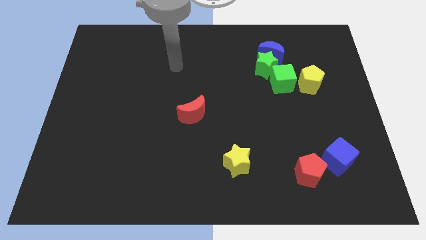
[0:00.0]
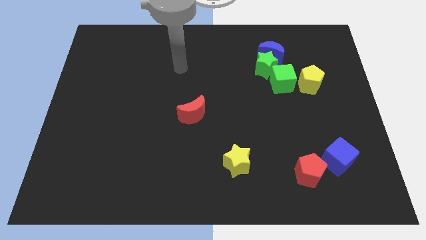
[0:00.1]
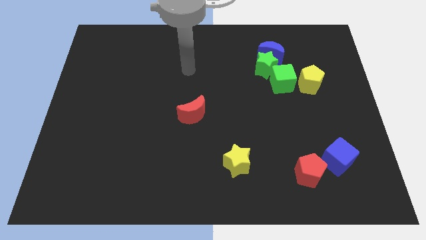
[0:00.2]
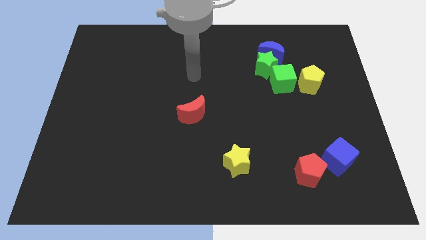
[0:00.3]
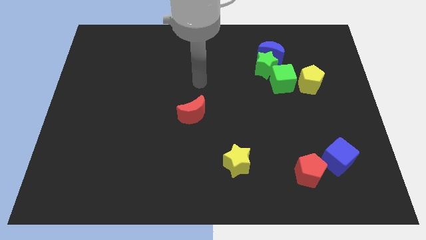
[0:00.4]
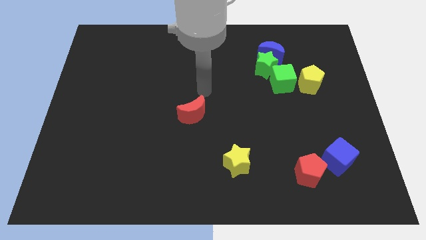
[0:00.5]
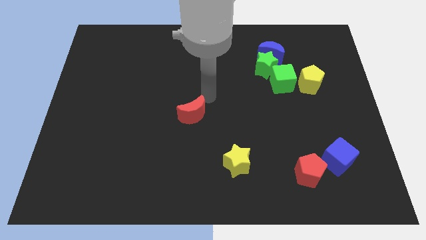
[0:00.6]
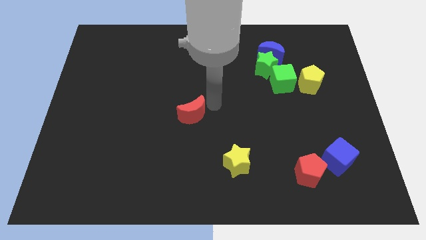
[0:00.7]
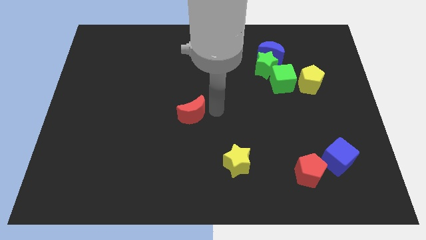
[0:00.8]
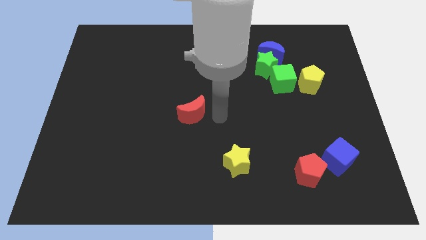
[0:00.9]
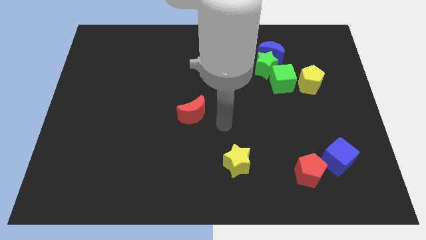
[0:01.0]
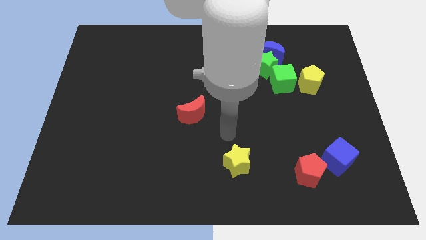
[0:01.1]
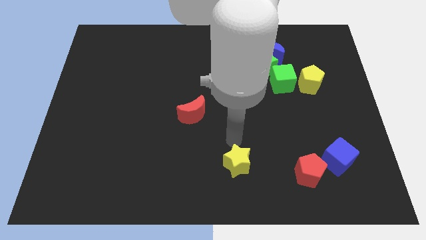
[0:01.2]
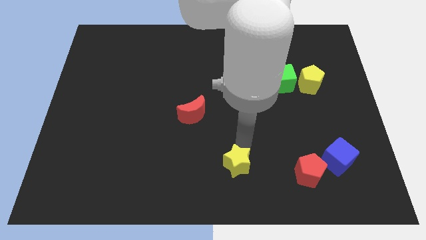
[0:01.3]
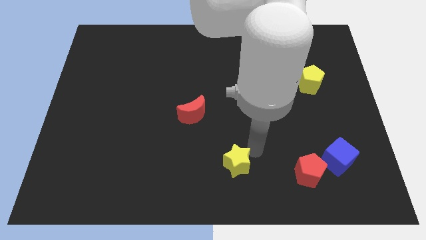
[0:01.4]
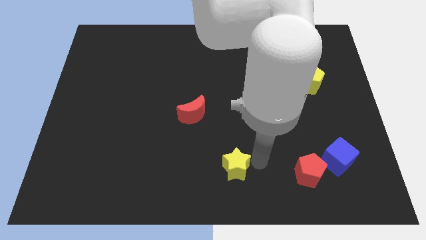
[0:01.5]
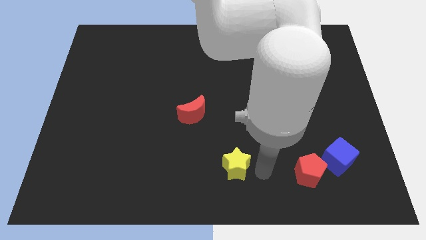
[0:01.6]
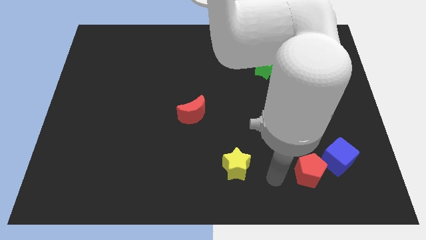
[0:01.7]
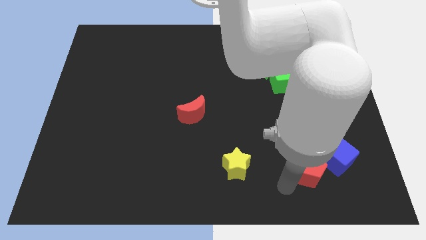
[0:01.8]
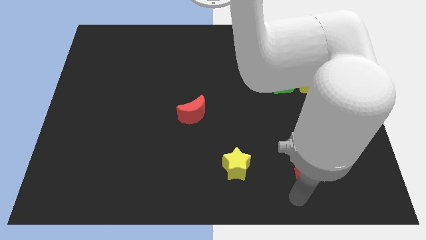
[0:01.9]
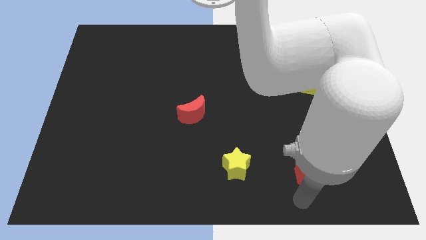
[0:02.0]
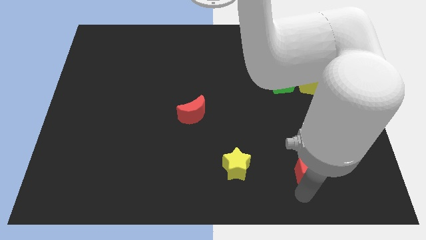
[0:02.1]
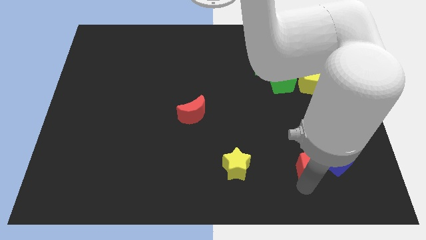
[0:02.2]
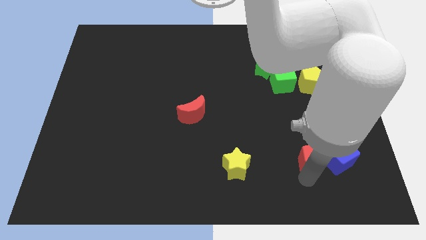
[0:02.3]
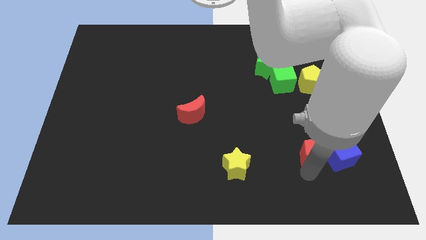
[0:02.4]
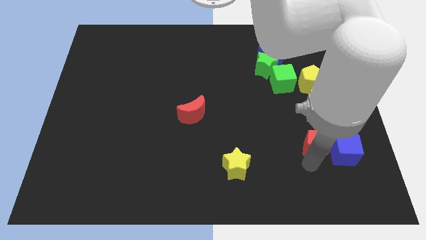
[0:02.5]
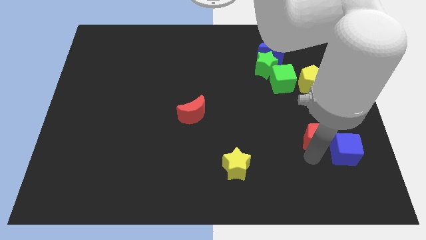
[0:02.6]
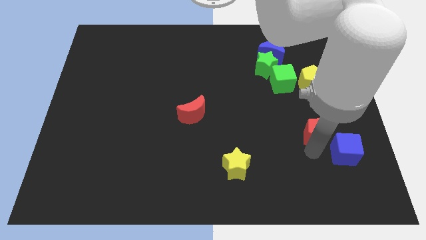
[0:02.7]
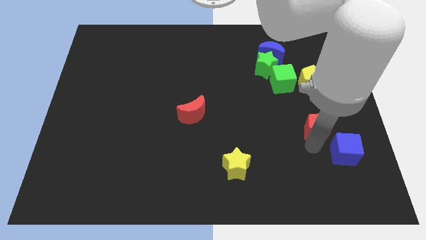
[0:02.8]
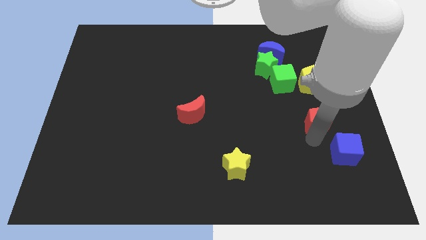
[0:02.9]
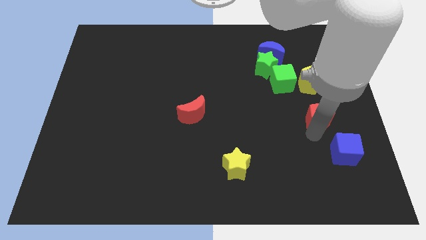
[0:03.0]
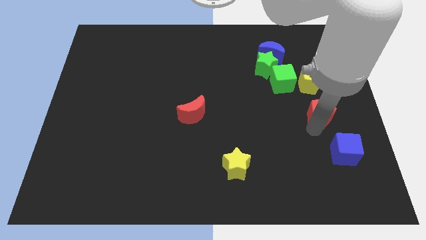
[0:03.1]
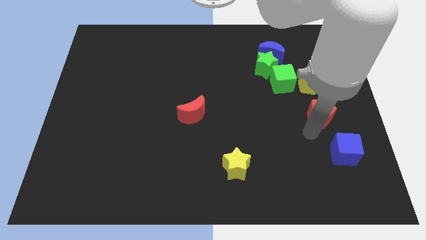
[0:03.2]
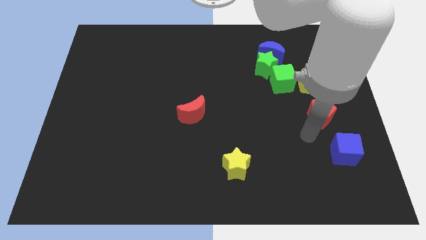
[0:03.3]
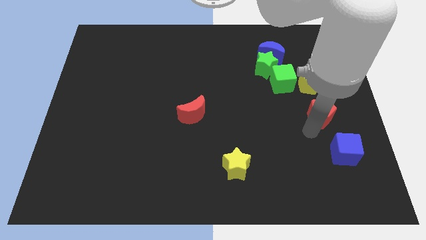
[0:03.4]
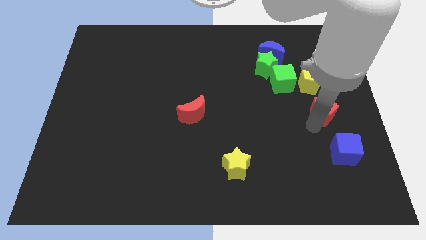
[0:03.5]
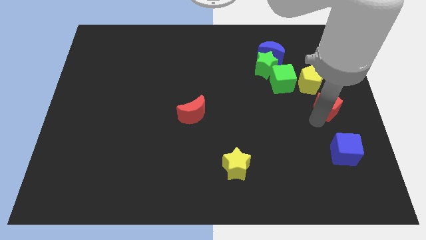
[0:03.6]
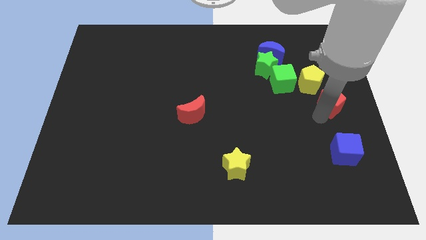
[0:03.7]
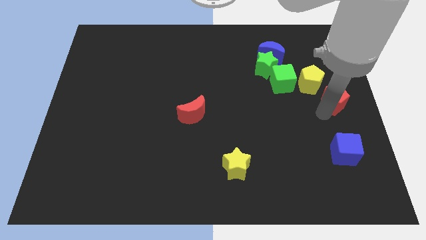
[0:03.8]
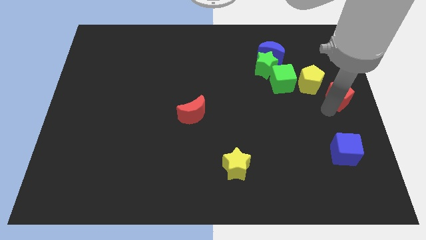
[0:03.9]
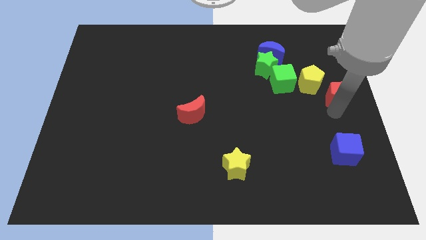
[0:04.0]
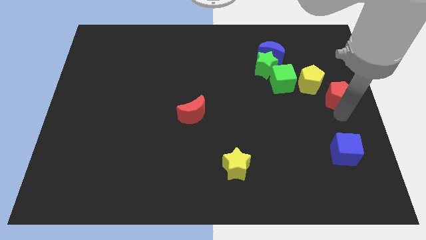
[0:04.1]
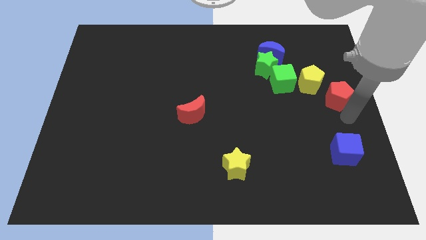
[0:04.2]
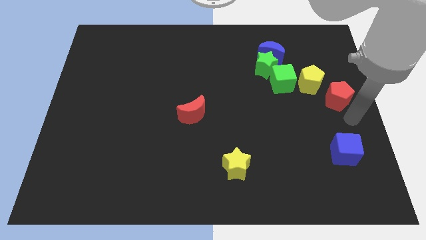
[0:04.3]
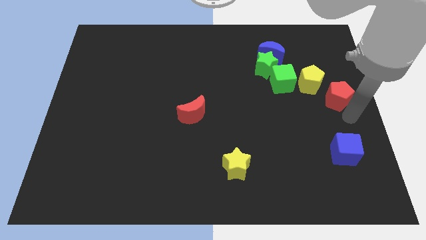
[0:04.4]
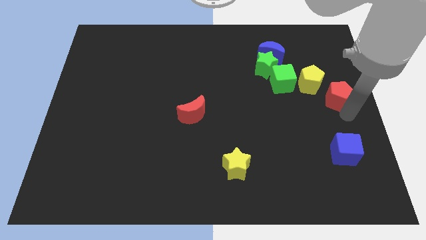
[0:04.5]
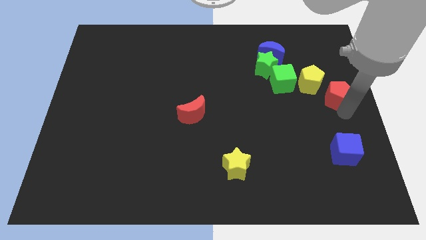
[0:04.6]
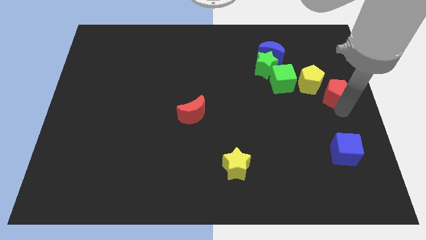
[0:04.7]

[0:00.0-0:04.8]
move the red pentagon right of the green cube

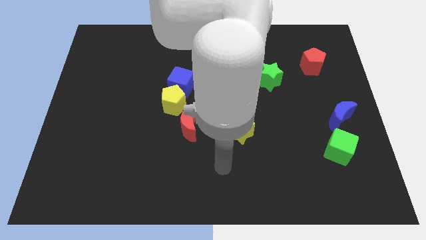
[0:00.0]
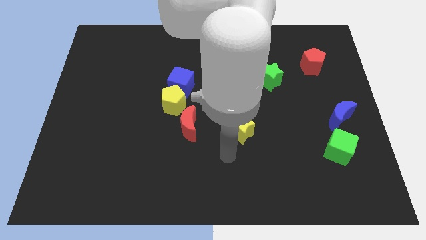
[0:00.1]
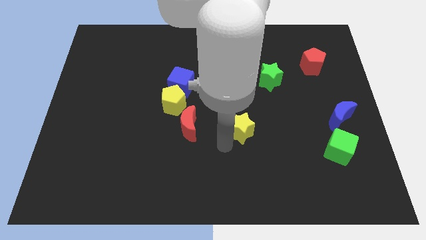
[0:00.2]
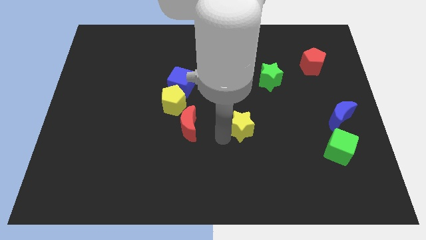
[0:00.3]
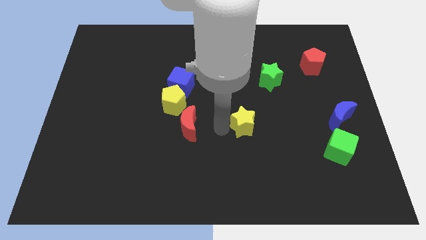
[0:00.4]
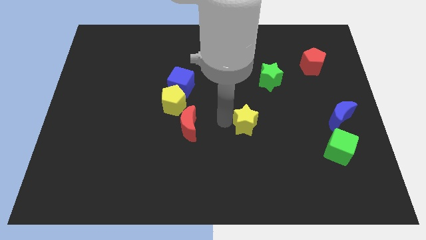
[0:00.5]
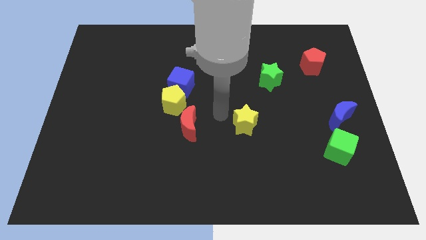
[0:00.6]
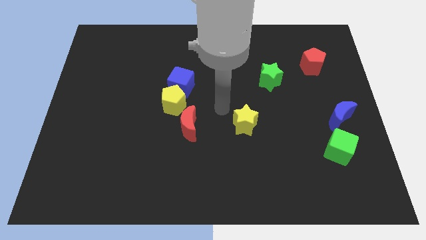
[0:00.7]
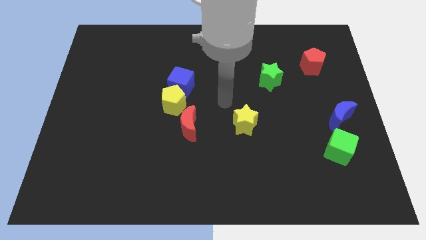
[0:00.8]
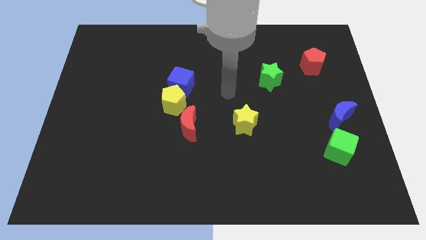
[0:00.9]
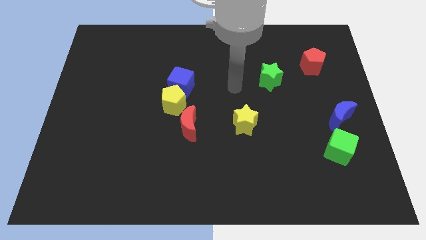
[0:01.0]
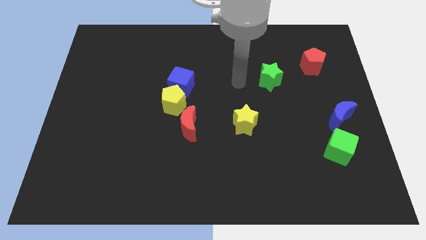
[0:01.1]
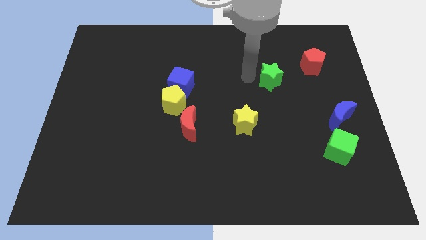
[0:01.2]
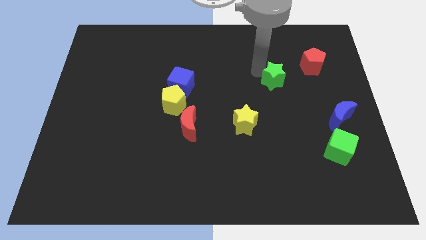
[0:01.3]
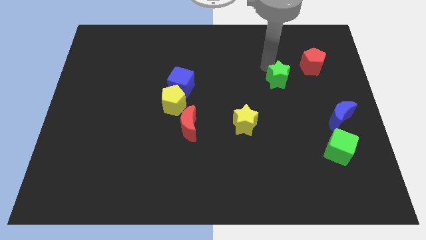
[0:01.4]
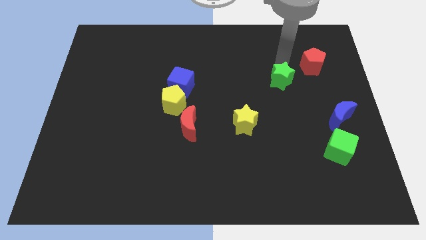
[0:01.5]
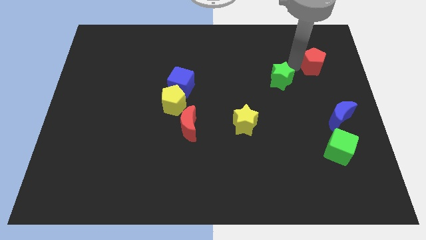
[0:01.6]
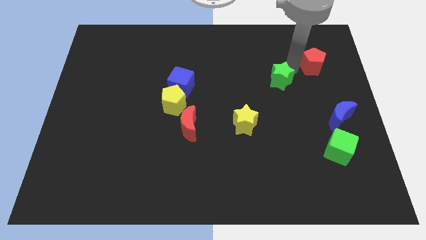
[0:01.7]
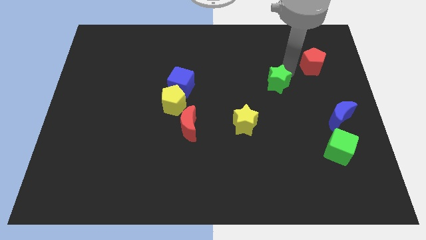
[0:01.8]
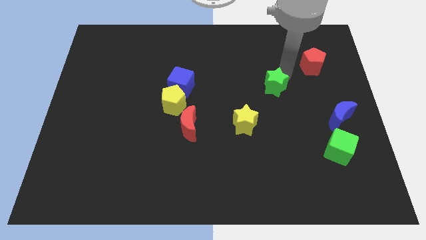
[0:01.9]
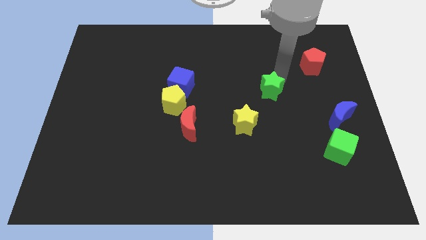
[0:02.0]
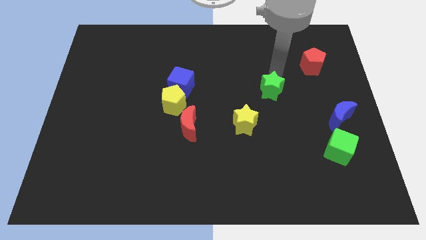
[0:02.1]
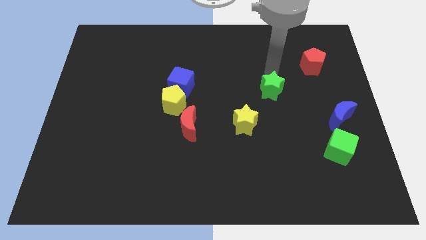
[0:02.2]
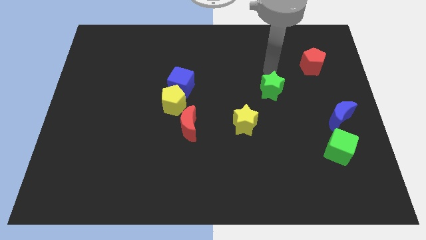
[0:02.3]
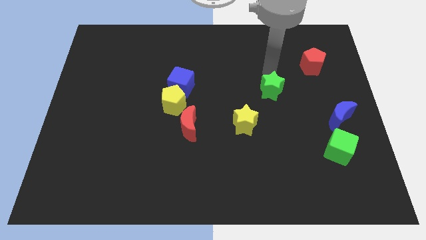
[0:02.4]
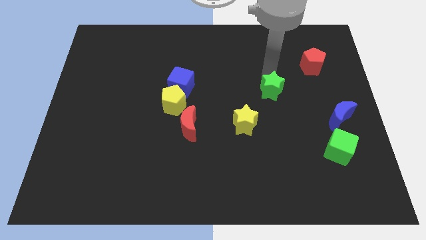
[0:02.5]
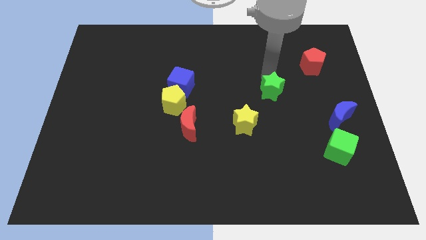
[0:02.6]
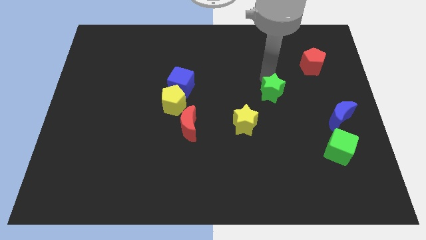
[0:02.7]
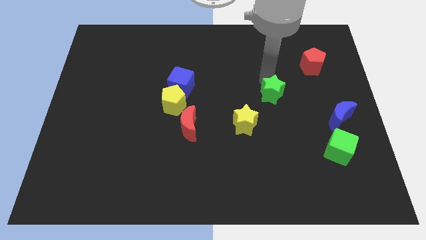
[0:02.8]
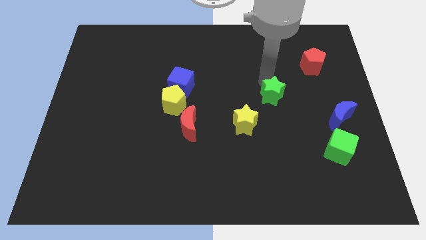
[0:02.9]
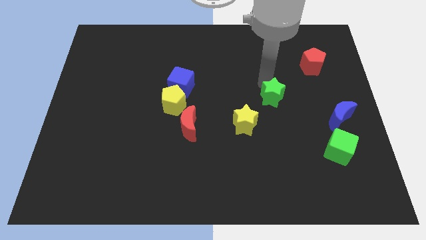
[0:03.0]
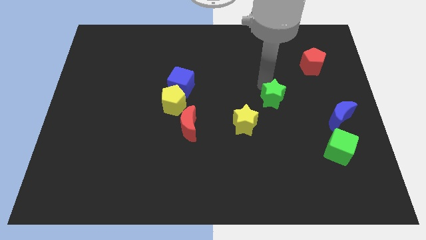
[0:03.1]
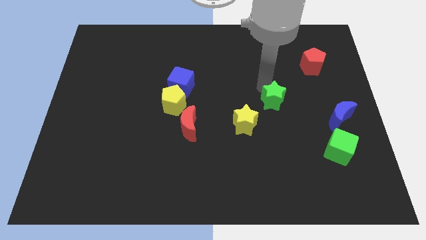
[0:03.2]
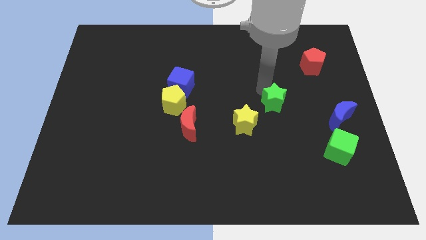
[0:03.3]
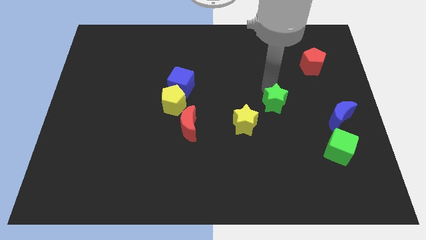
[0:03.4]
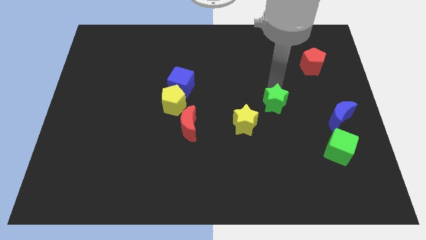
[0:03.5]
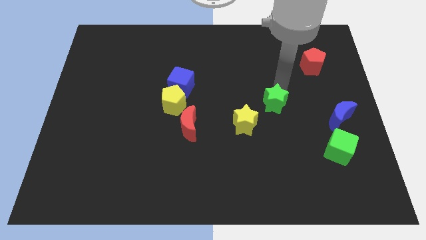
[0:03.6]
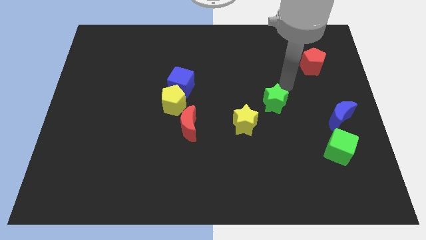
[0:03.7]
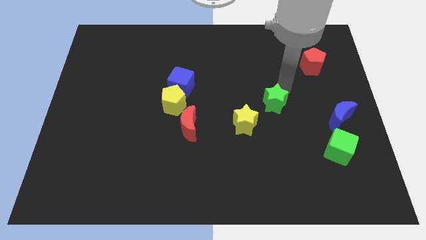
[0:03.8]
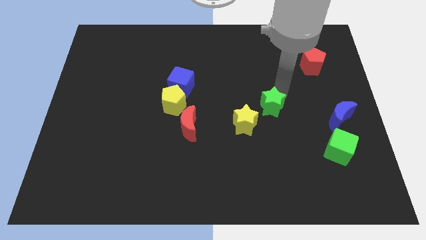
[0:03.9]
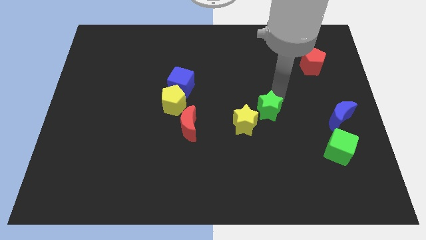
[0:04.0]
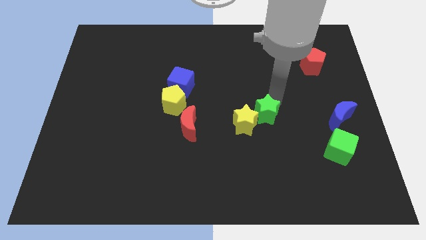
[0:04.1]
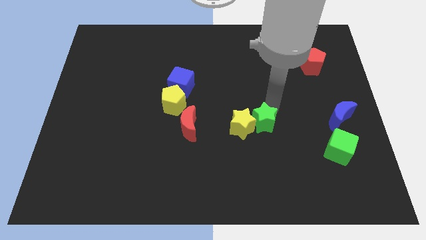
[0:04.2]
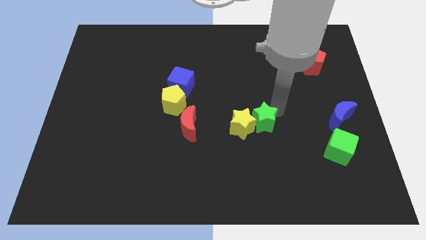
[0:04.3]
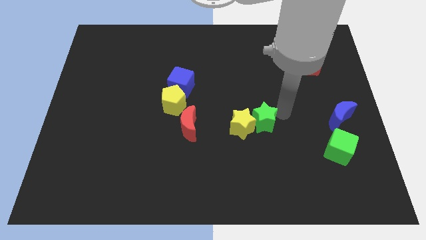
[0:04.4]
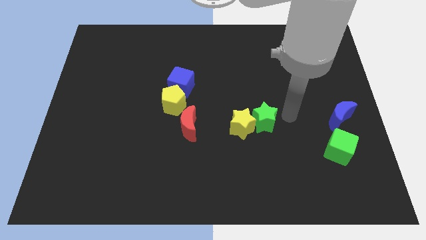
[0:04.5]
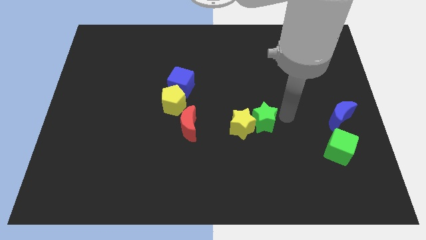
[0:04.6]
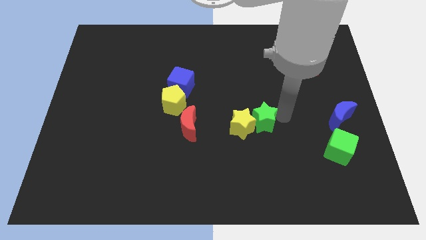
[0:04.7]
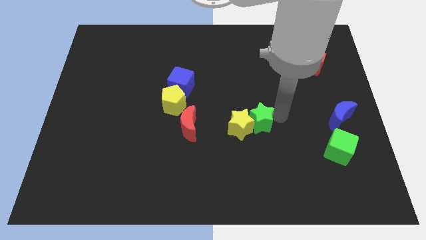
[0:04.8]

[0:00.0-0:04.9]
put the green star to the right side of the red moon
